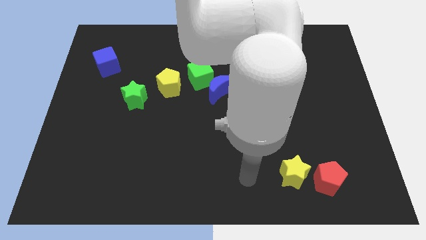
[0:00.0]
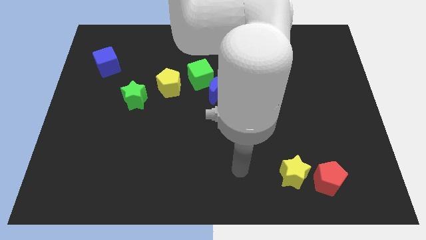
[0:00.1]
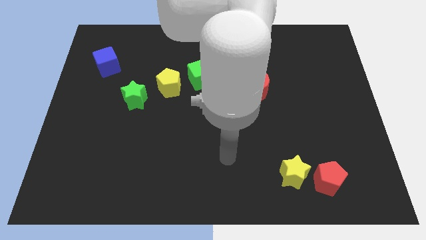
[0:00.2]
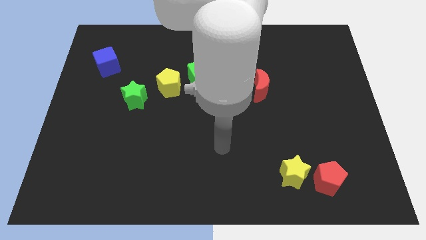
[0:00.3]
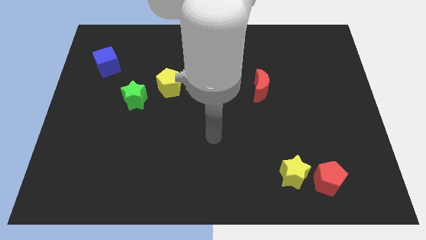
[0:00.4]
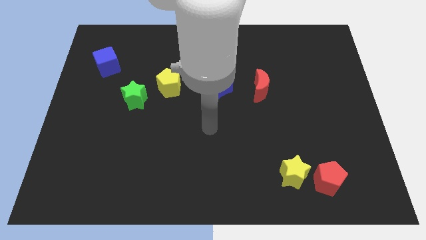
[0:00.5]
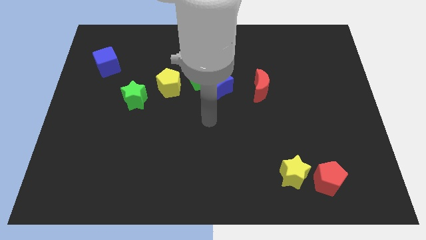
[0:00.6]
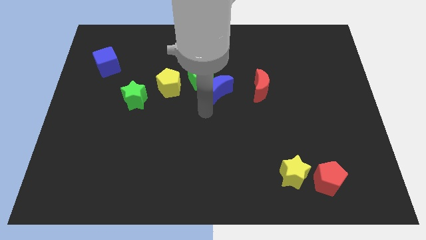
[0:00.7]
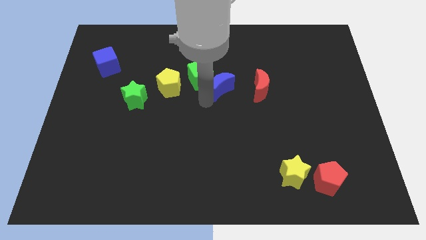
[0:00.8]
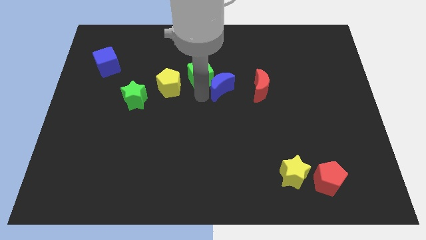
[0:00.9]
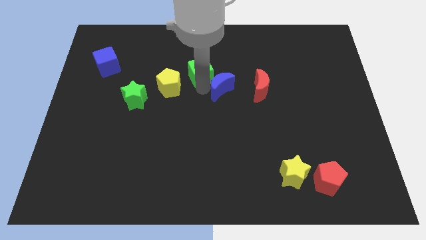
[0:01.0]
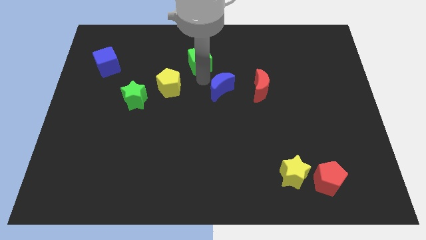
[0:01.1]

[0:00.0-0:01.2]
pull the blue moon apart from the green cube

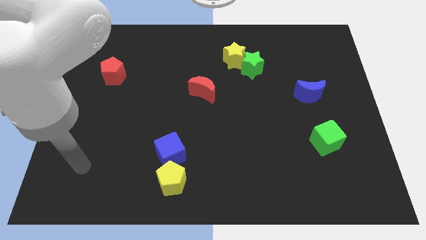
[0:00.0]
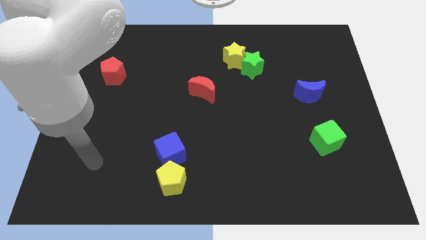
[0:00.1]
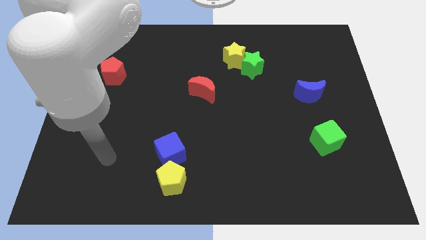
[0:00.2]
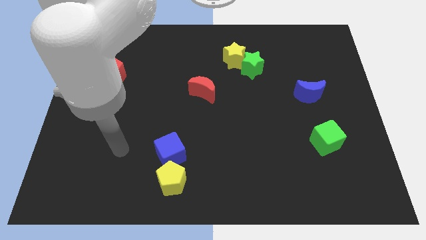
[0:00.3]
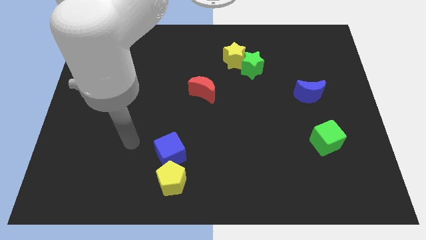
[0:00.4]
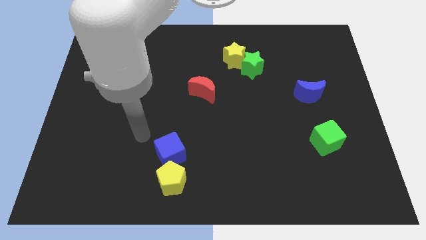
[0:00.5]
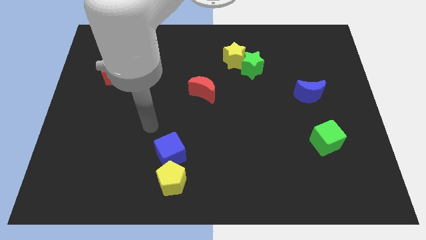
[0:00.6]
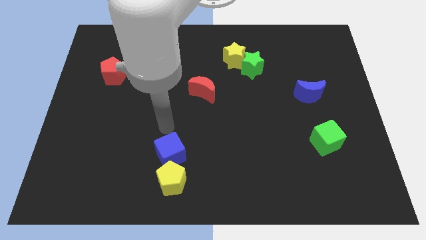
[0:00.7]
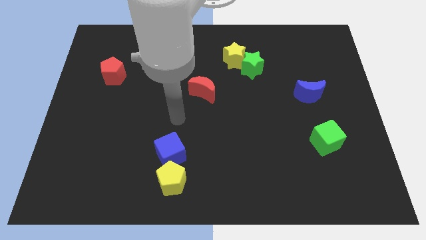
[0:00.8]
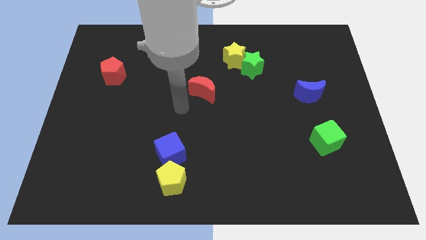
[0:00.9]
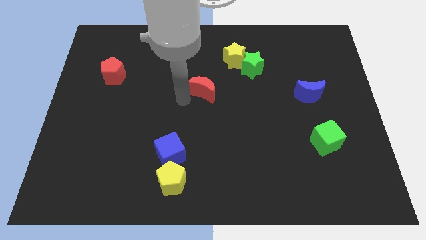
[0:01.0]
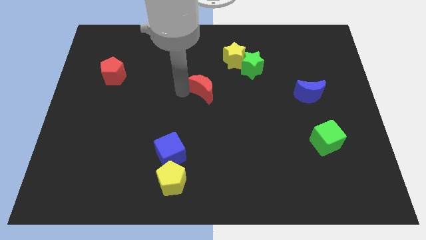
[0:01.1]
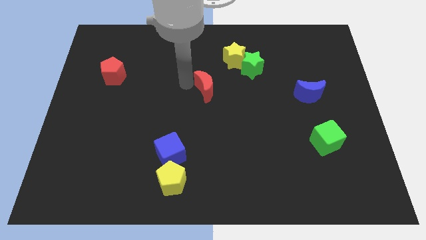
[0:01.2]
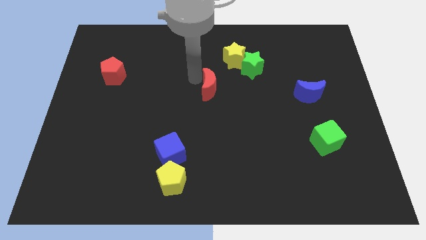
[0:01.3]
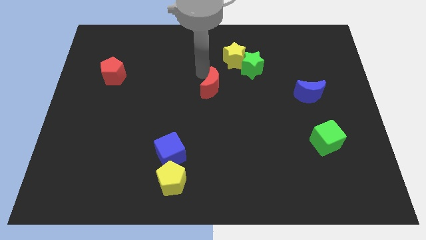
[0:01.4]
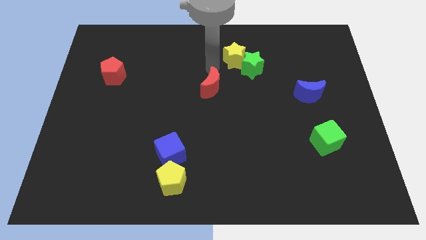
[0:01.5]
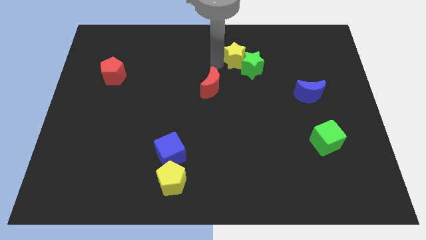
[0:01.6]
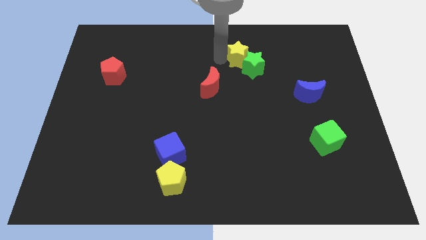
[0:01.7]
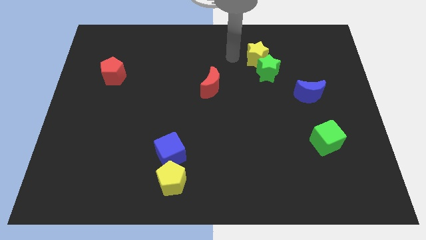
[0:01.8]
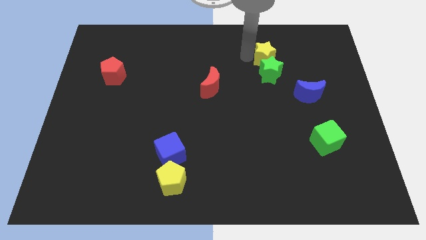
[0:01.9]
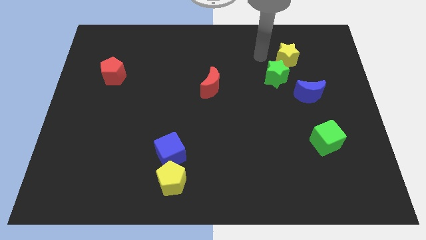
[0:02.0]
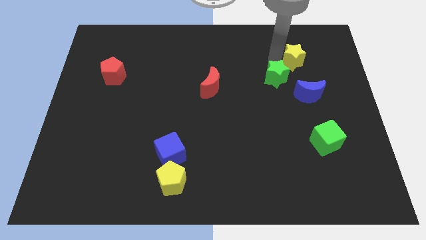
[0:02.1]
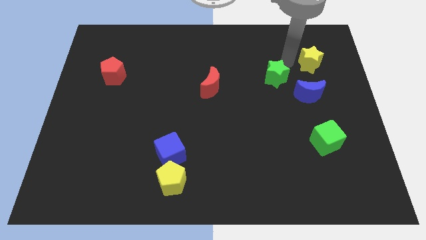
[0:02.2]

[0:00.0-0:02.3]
pull the green star apart from the yellow star

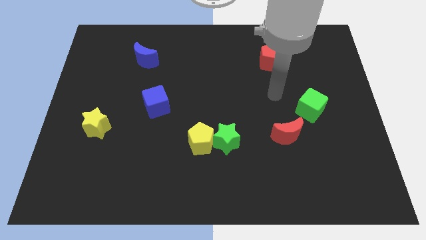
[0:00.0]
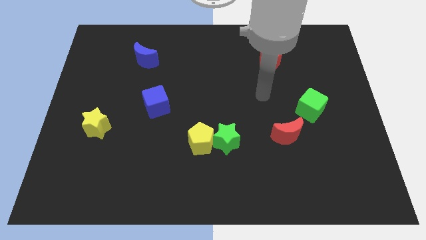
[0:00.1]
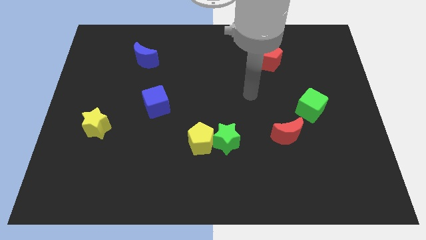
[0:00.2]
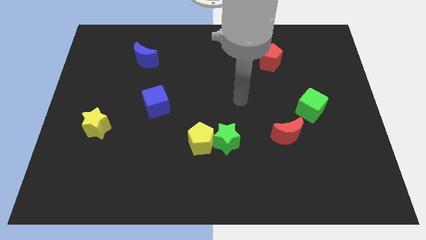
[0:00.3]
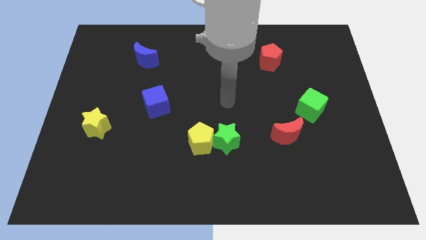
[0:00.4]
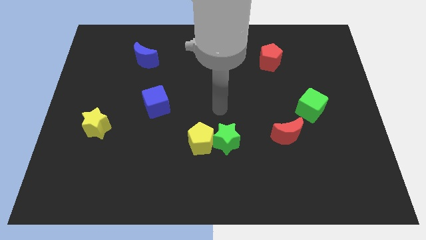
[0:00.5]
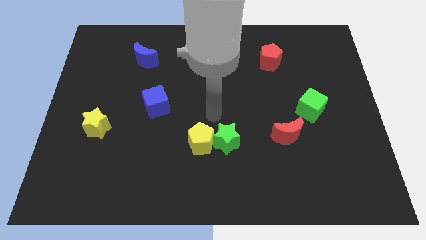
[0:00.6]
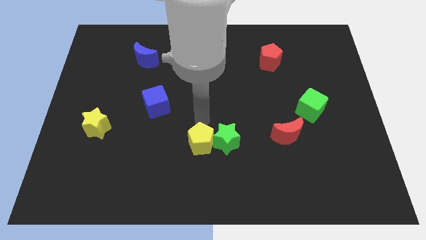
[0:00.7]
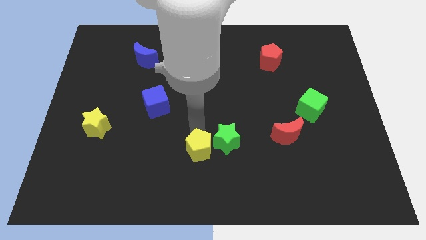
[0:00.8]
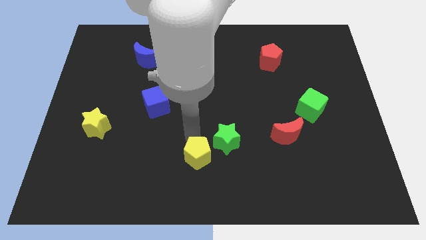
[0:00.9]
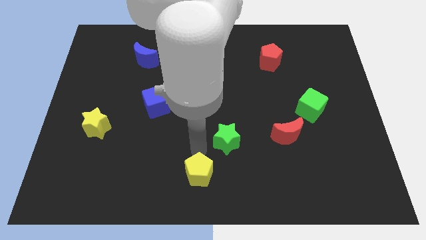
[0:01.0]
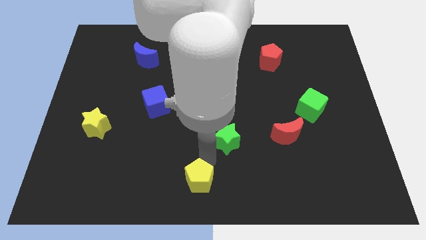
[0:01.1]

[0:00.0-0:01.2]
move the green star away from the yellow pentagon

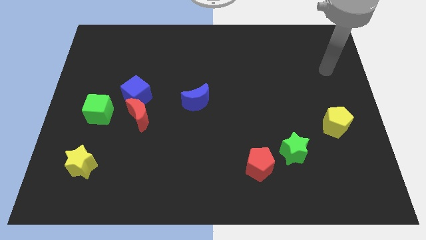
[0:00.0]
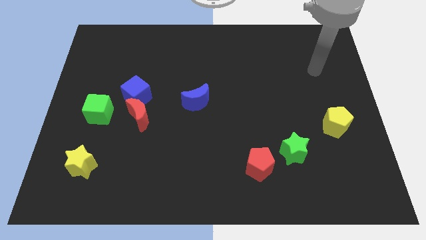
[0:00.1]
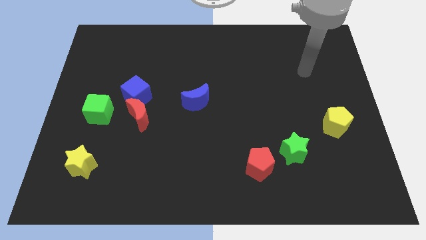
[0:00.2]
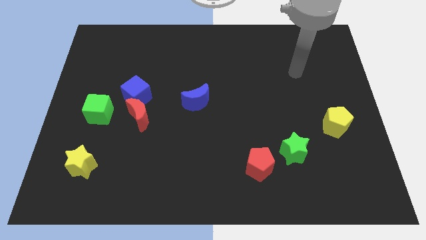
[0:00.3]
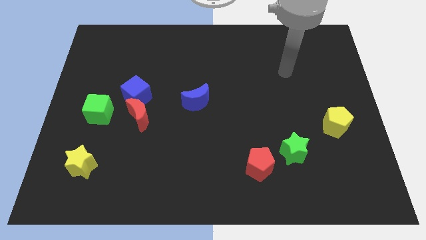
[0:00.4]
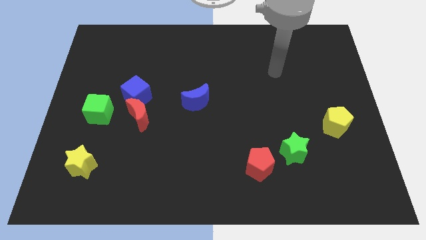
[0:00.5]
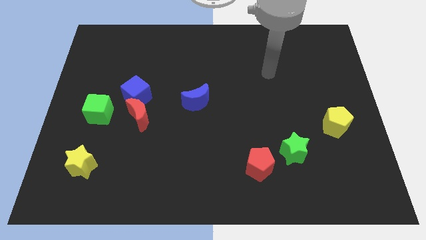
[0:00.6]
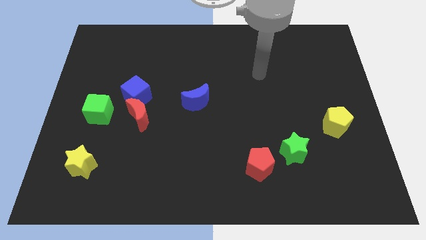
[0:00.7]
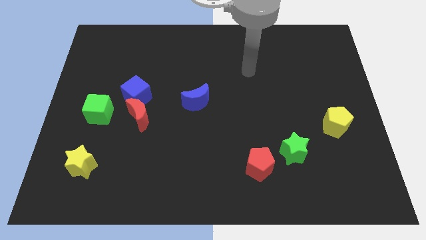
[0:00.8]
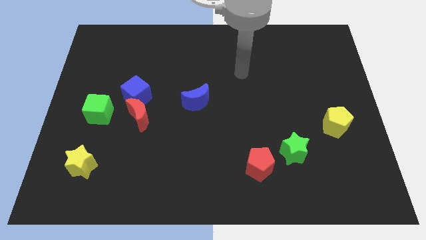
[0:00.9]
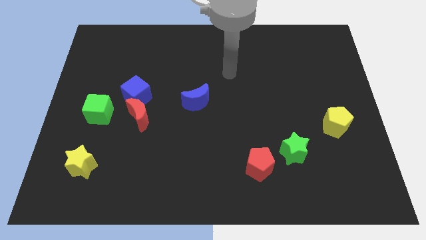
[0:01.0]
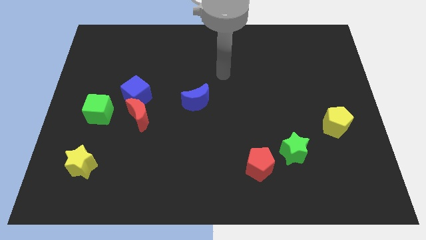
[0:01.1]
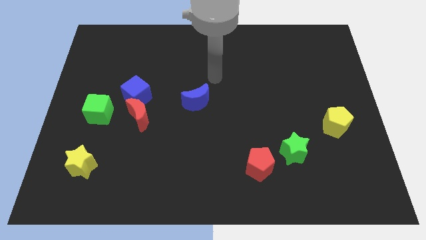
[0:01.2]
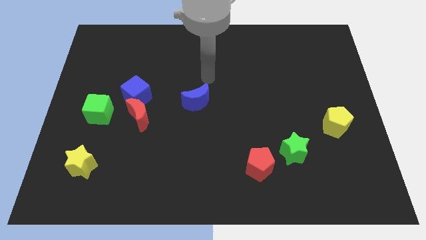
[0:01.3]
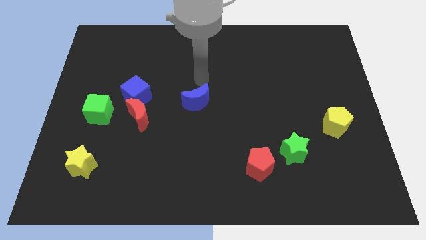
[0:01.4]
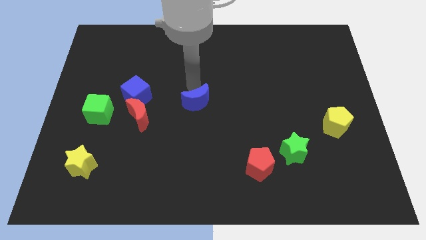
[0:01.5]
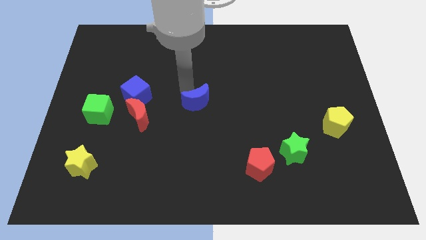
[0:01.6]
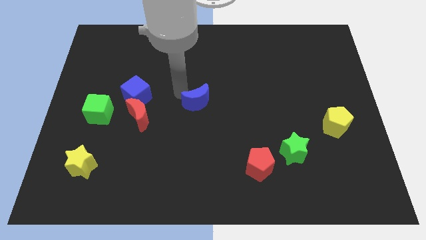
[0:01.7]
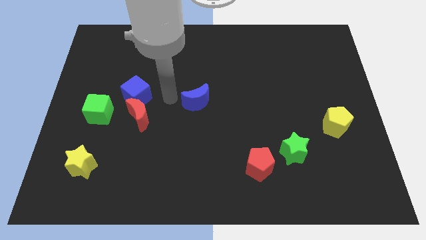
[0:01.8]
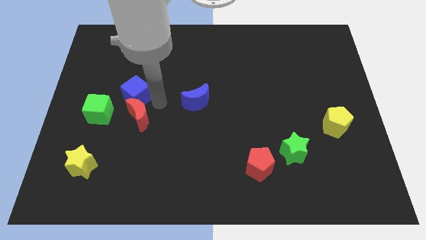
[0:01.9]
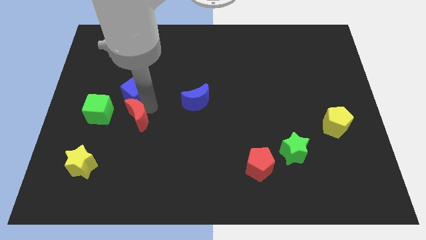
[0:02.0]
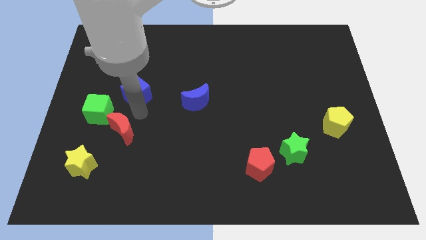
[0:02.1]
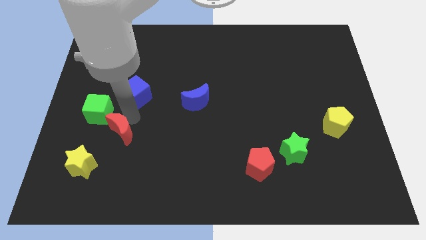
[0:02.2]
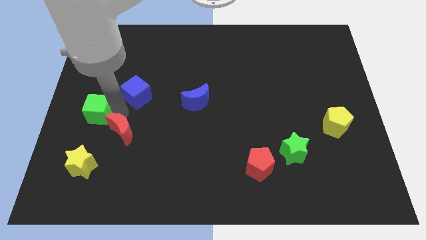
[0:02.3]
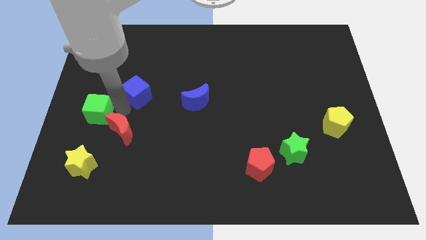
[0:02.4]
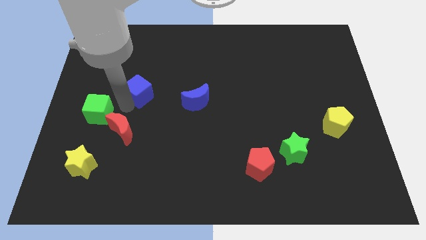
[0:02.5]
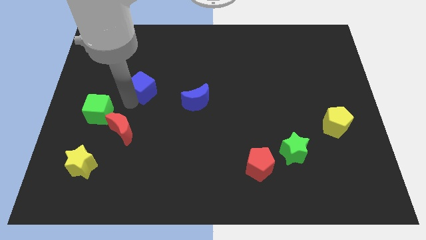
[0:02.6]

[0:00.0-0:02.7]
pull the blue cube apart from the red moon and green cube

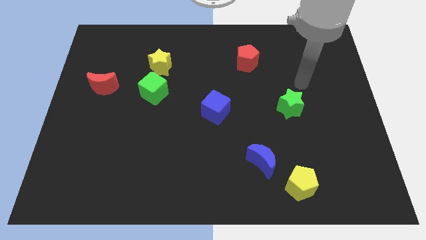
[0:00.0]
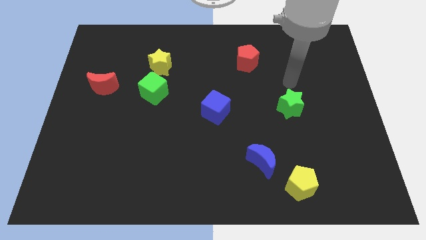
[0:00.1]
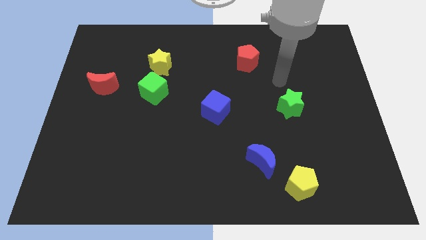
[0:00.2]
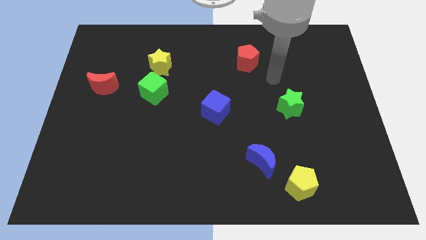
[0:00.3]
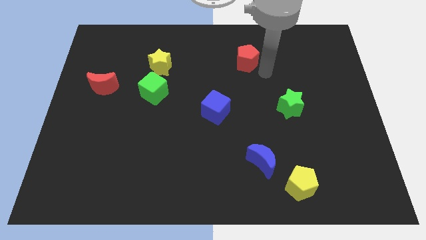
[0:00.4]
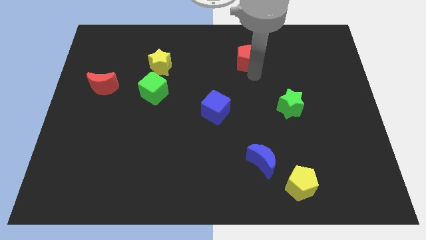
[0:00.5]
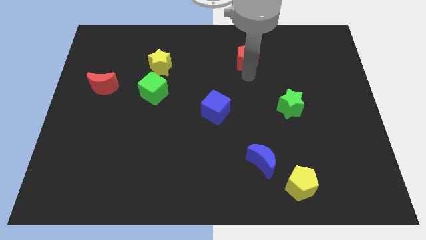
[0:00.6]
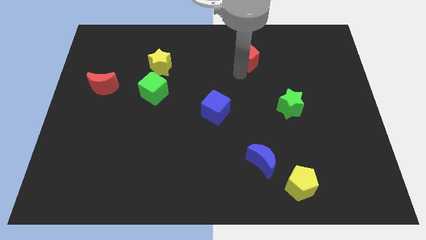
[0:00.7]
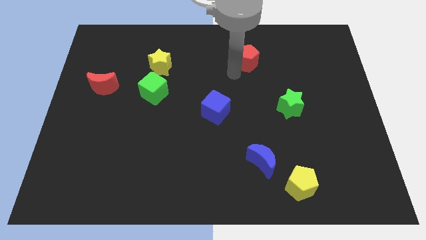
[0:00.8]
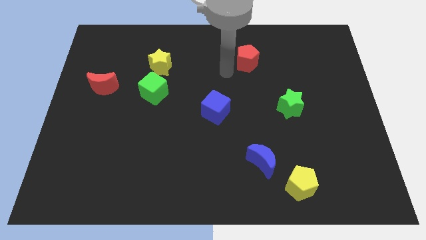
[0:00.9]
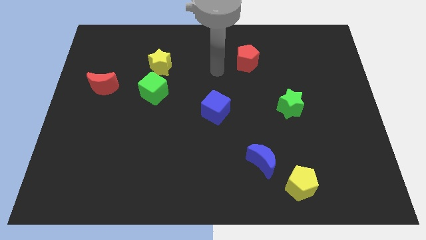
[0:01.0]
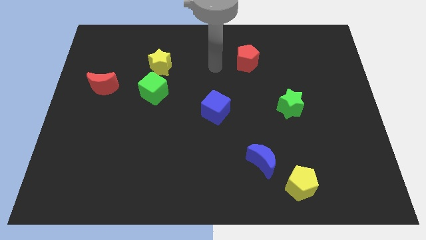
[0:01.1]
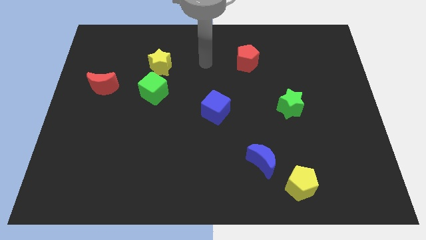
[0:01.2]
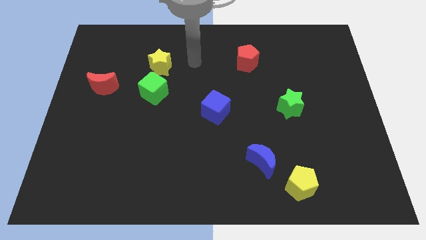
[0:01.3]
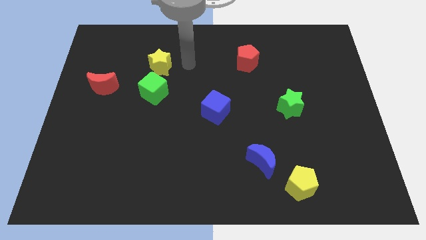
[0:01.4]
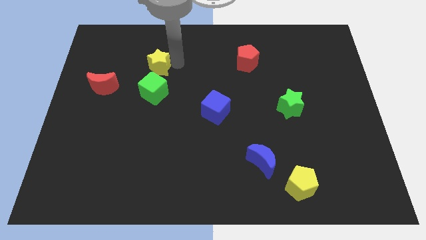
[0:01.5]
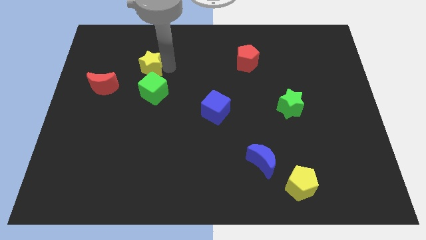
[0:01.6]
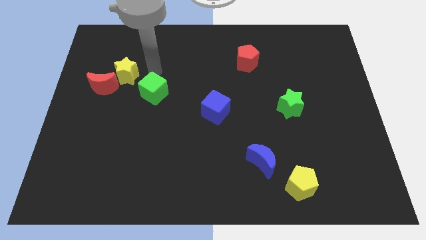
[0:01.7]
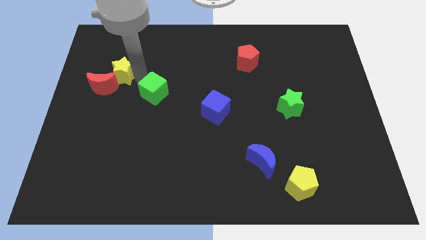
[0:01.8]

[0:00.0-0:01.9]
pull the green cube apart from the yellow star
